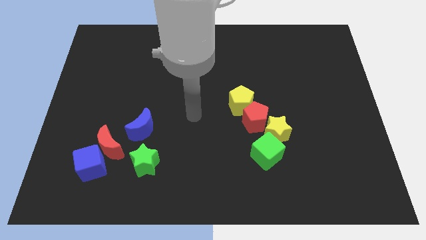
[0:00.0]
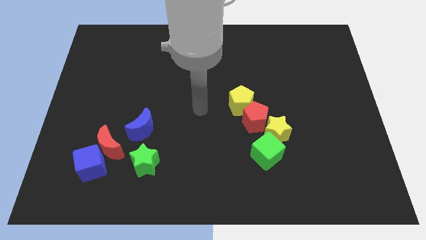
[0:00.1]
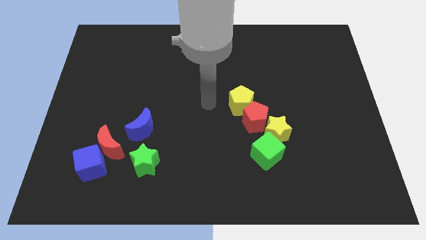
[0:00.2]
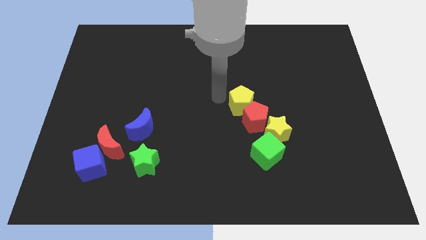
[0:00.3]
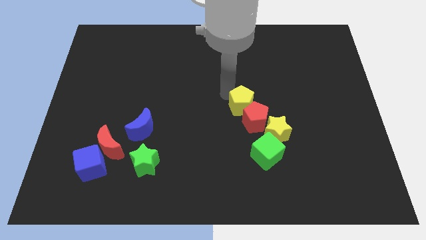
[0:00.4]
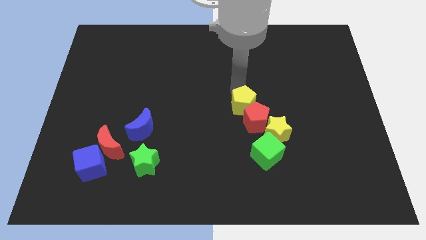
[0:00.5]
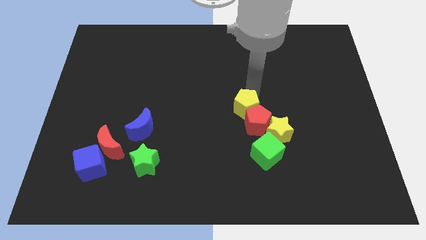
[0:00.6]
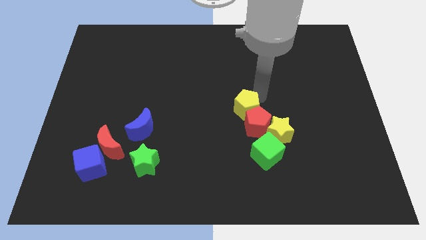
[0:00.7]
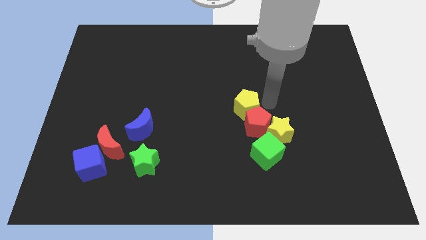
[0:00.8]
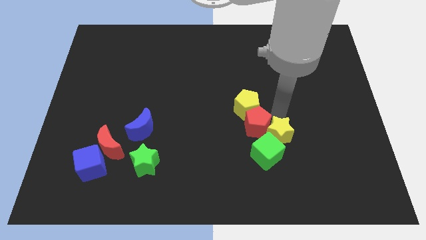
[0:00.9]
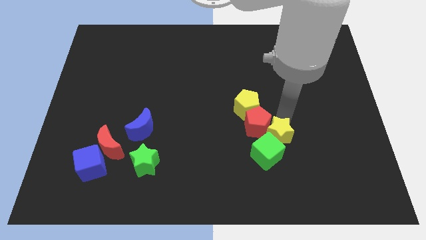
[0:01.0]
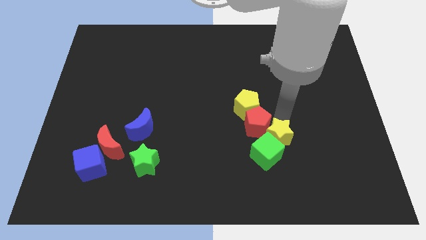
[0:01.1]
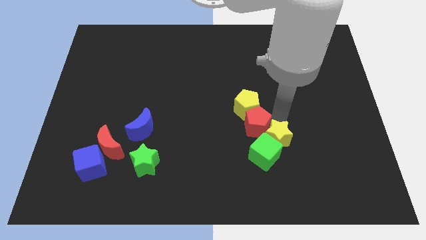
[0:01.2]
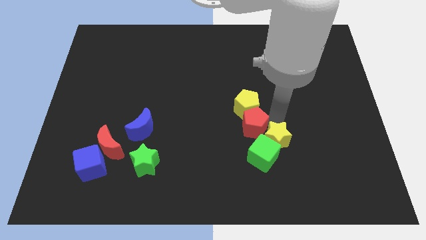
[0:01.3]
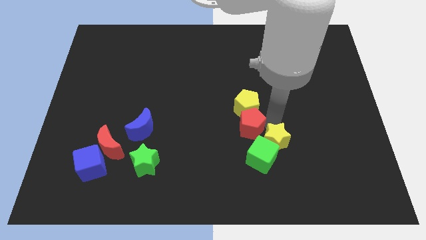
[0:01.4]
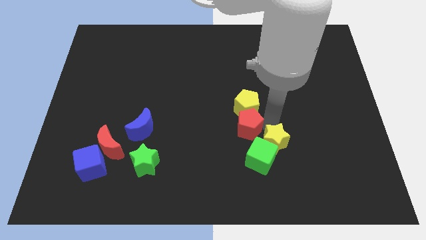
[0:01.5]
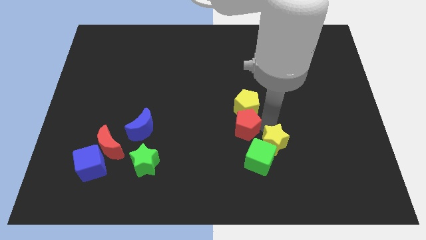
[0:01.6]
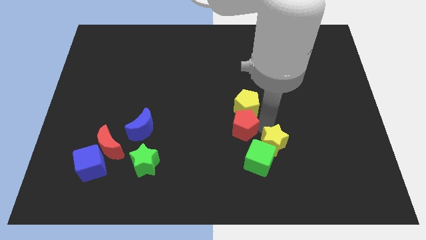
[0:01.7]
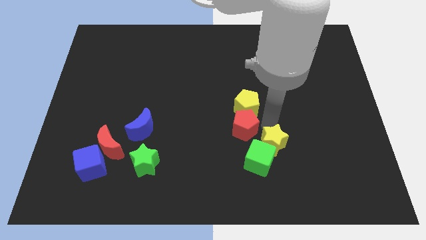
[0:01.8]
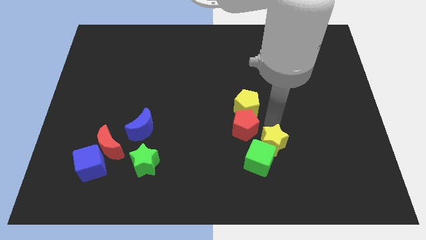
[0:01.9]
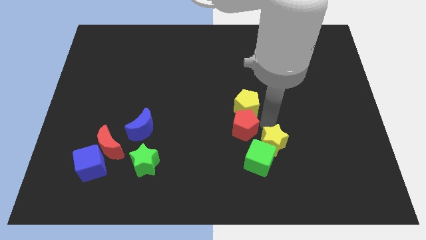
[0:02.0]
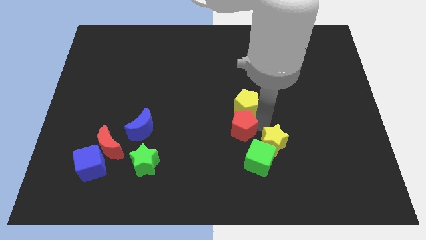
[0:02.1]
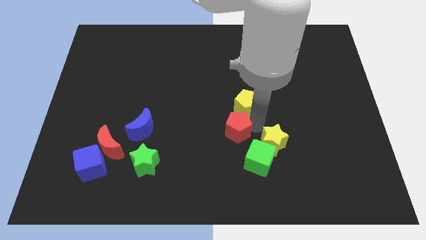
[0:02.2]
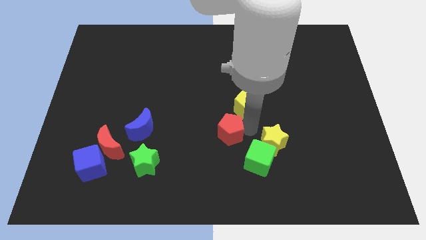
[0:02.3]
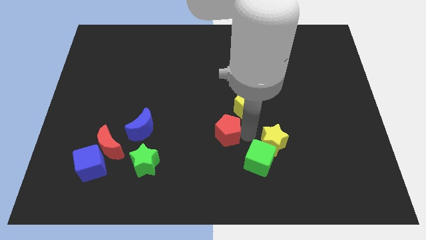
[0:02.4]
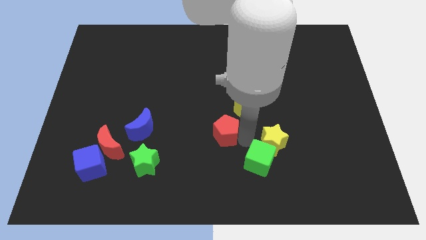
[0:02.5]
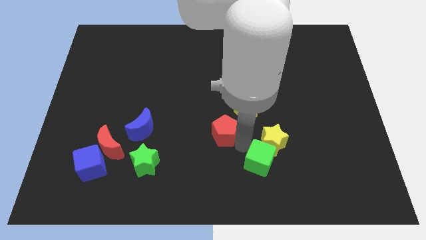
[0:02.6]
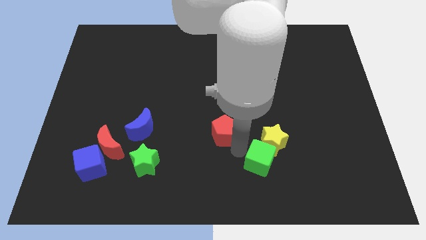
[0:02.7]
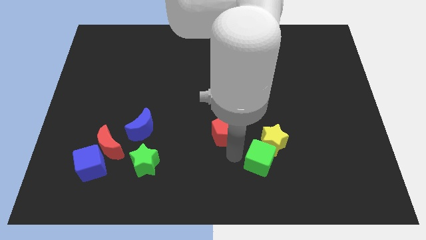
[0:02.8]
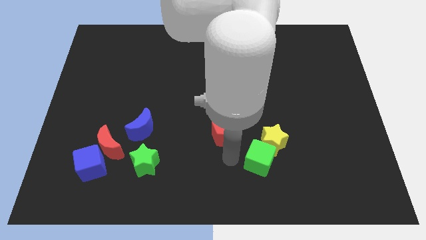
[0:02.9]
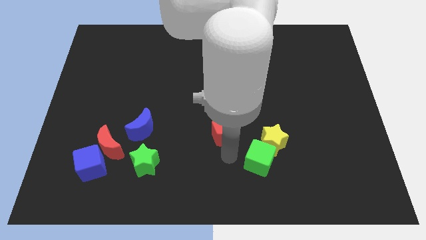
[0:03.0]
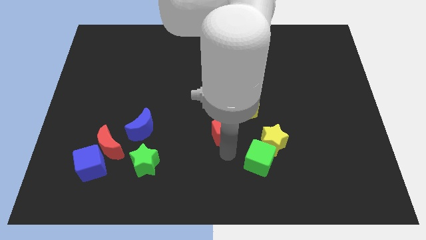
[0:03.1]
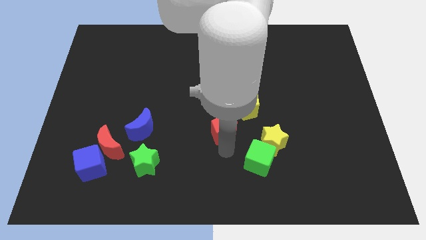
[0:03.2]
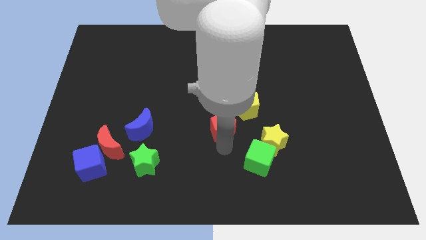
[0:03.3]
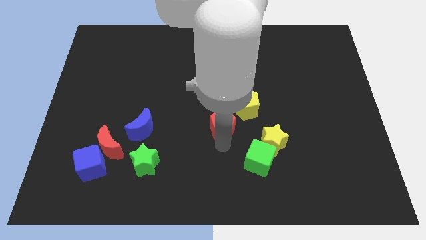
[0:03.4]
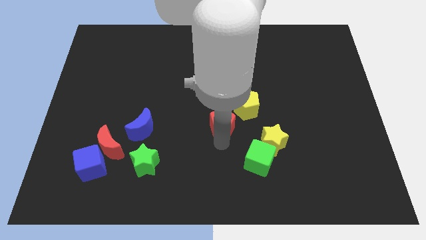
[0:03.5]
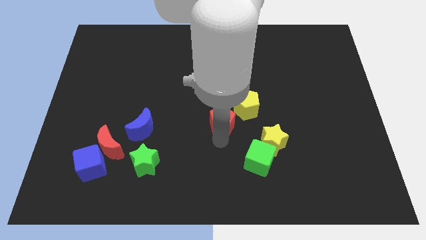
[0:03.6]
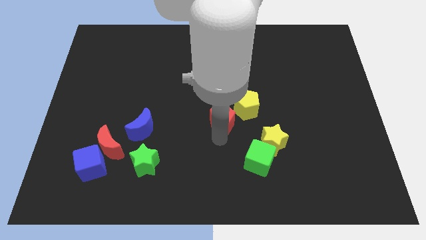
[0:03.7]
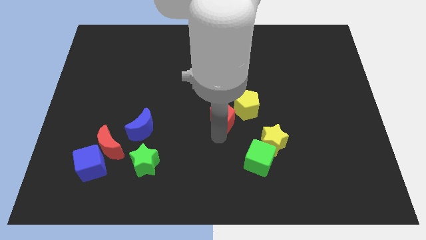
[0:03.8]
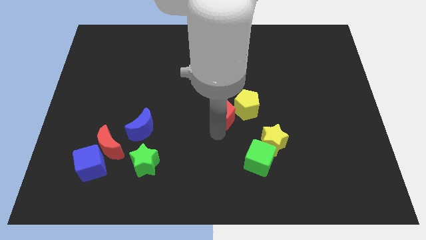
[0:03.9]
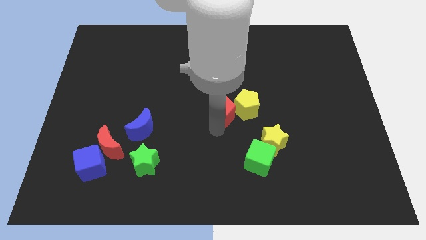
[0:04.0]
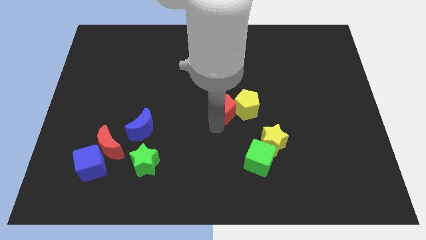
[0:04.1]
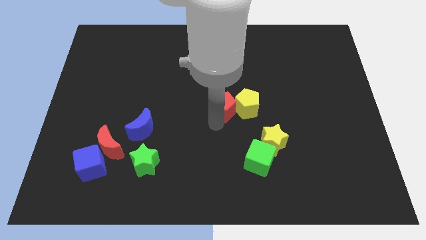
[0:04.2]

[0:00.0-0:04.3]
move the red pentagon a little bit diagonally up and left

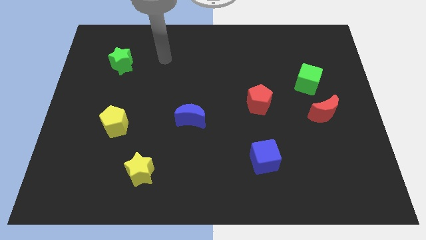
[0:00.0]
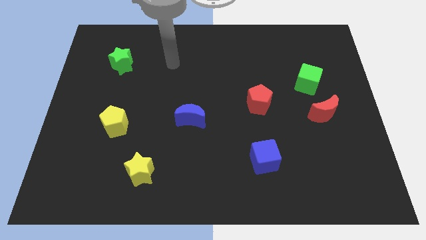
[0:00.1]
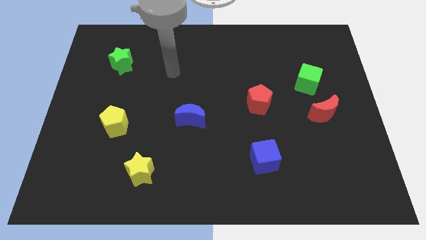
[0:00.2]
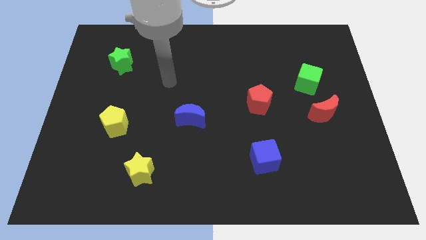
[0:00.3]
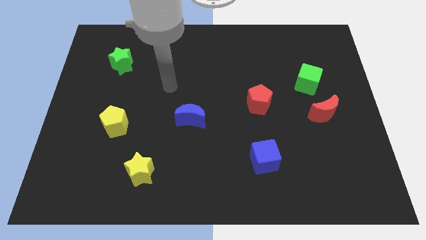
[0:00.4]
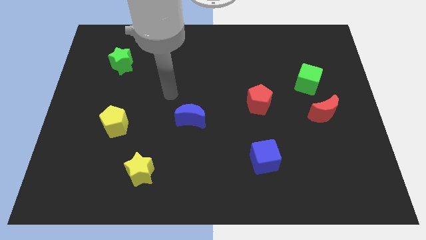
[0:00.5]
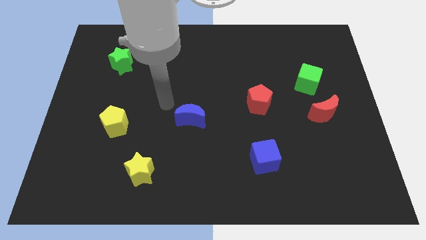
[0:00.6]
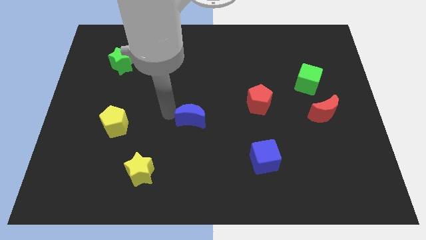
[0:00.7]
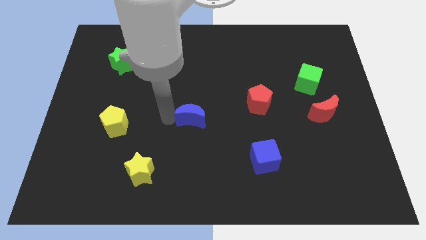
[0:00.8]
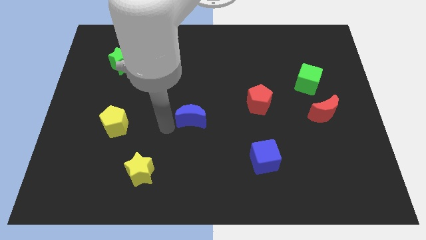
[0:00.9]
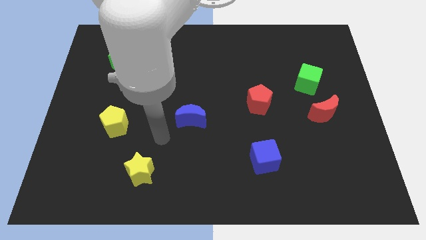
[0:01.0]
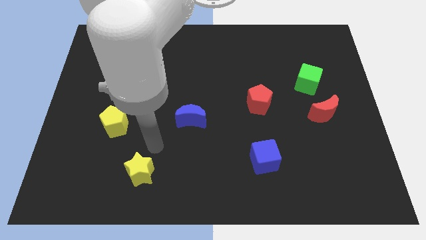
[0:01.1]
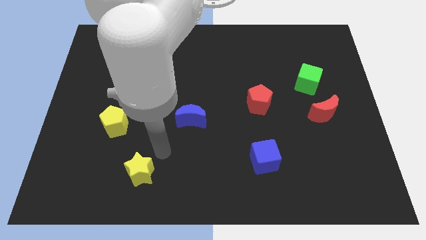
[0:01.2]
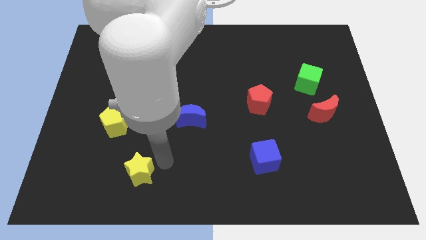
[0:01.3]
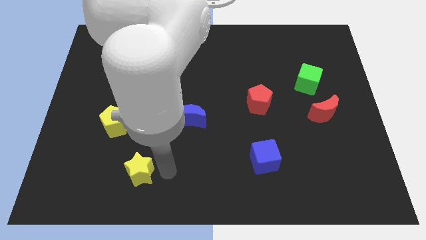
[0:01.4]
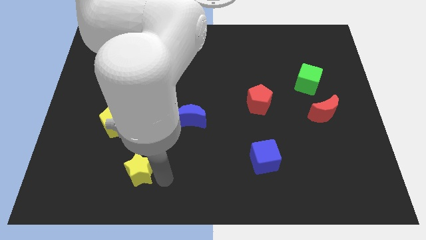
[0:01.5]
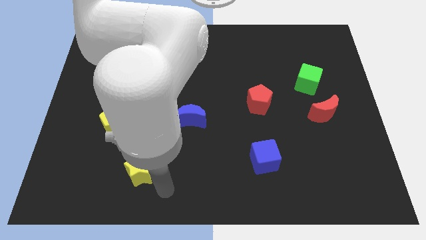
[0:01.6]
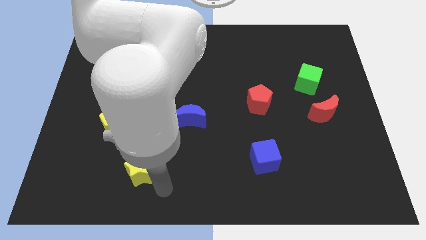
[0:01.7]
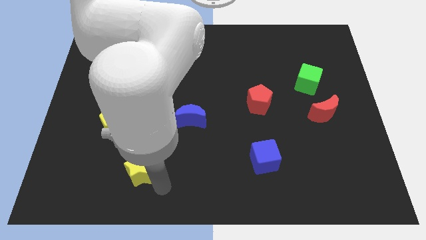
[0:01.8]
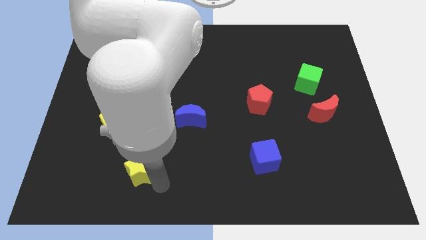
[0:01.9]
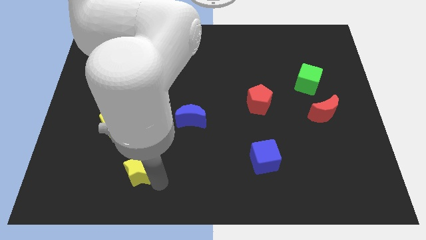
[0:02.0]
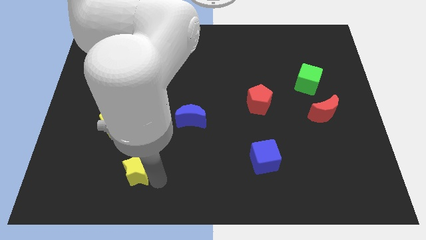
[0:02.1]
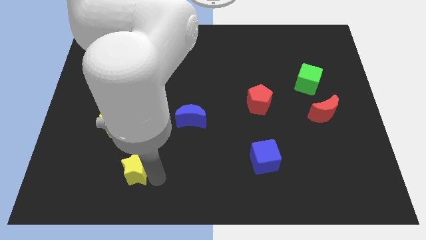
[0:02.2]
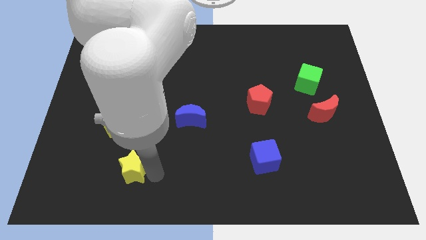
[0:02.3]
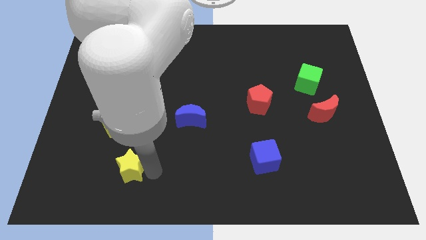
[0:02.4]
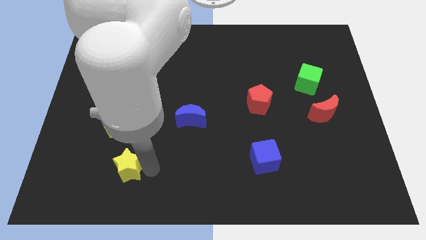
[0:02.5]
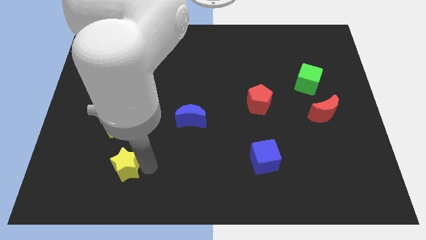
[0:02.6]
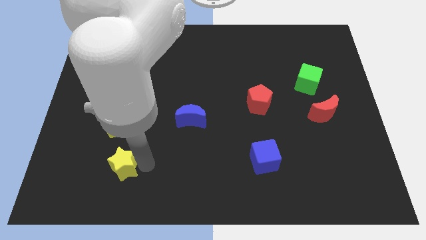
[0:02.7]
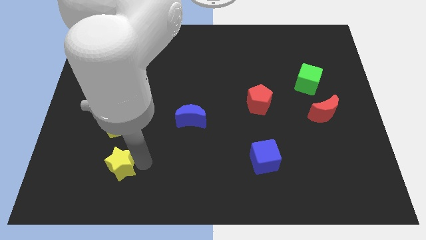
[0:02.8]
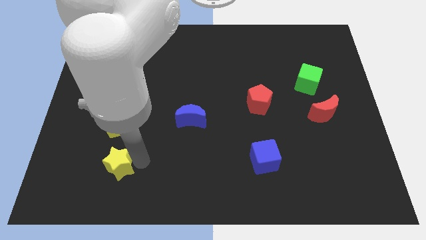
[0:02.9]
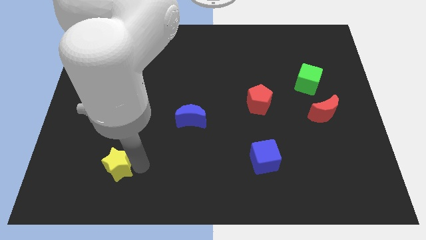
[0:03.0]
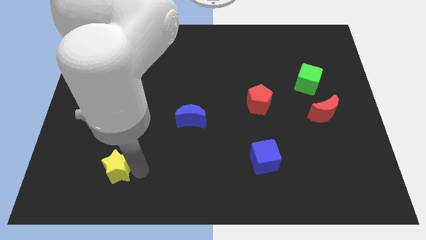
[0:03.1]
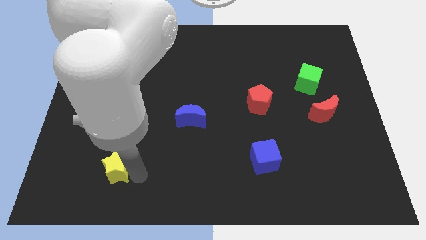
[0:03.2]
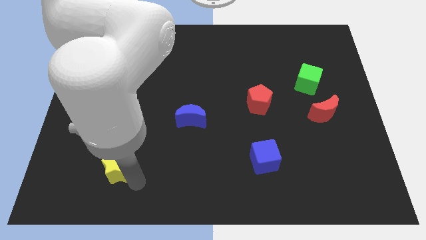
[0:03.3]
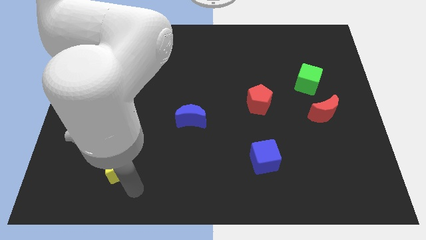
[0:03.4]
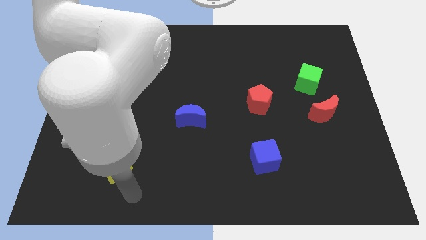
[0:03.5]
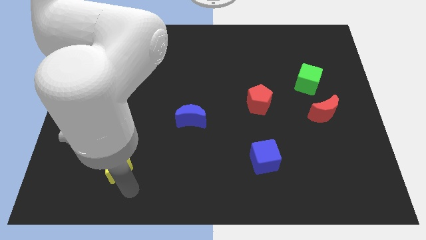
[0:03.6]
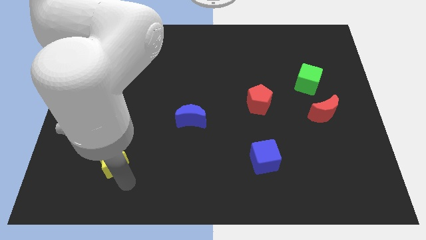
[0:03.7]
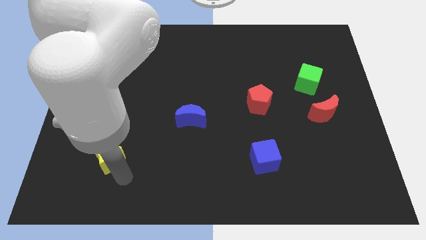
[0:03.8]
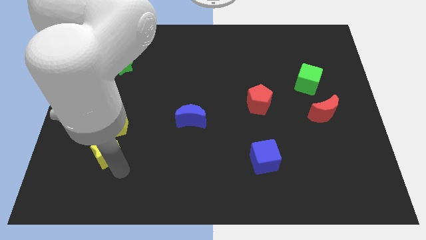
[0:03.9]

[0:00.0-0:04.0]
slide the yellow star a little bit up and to the left
